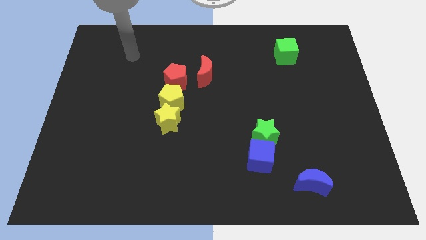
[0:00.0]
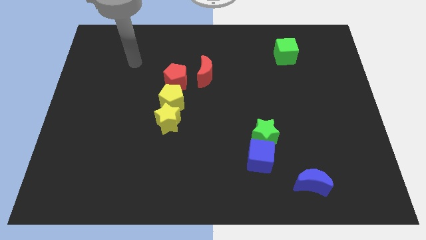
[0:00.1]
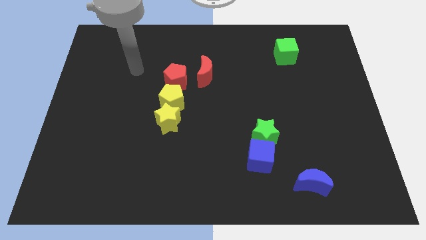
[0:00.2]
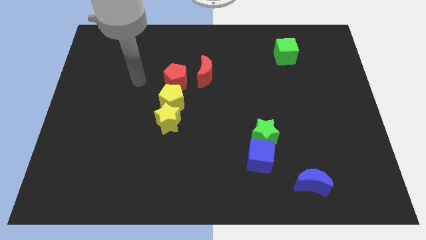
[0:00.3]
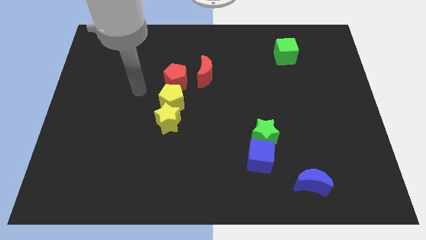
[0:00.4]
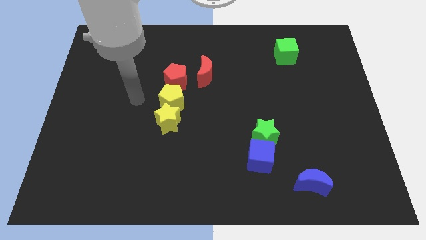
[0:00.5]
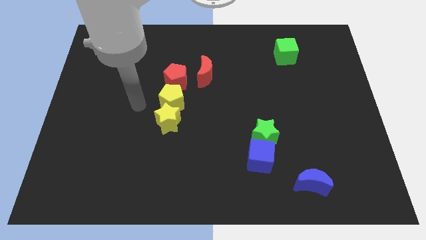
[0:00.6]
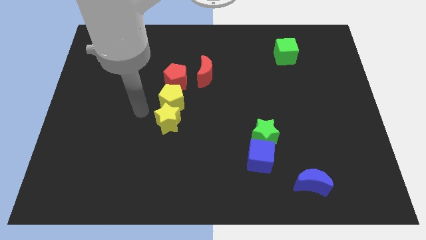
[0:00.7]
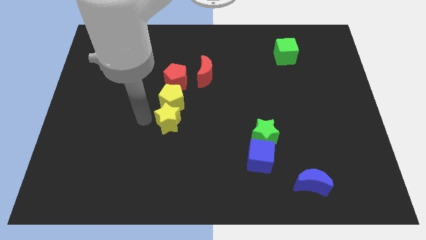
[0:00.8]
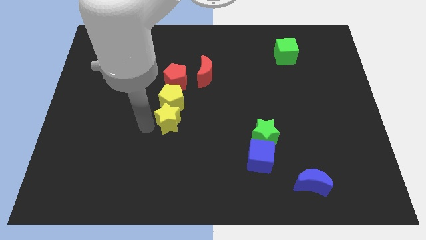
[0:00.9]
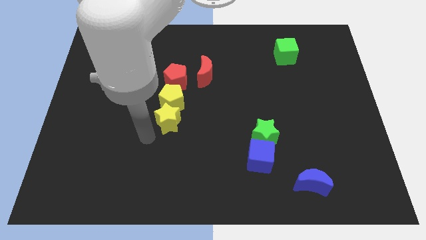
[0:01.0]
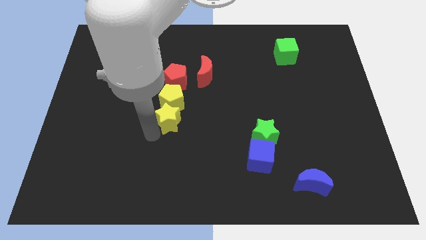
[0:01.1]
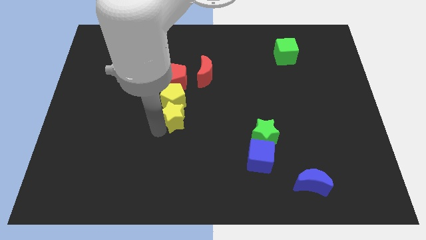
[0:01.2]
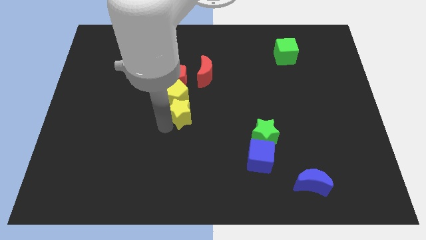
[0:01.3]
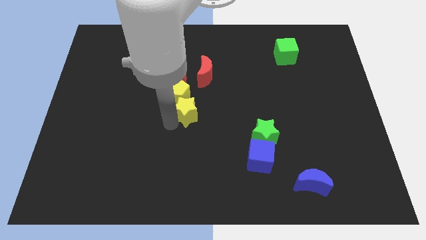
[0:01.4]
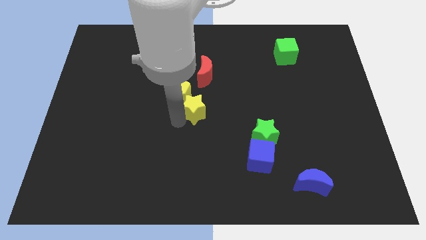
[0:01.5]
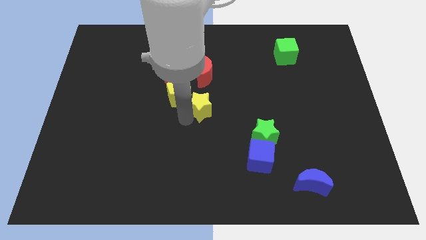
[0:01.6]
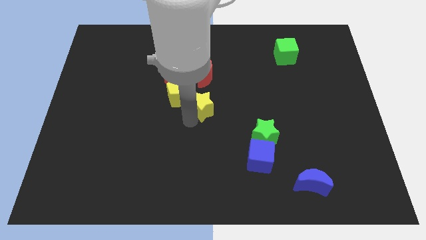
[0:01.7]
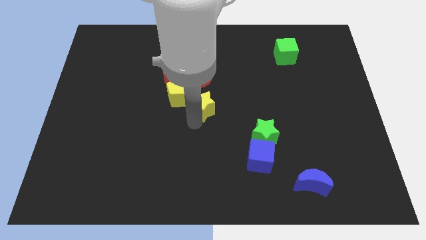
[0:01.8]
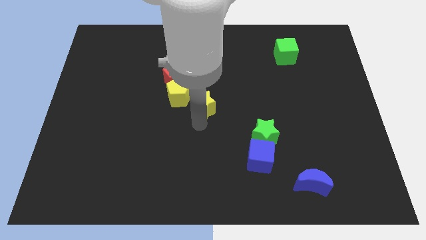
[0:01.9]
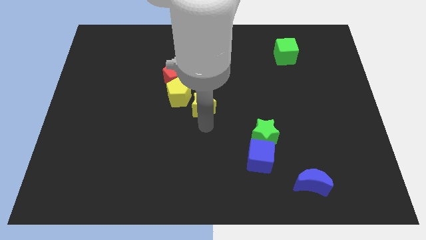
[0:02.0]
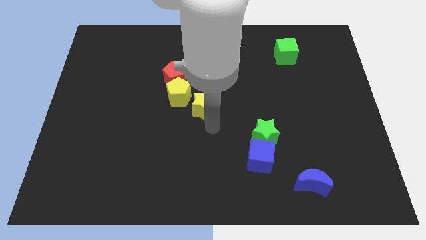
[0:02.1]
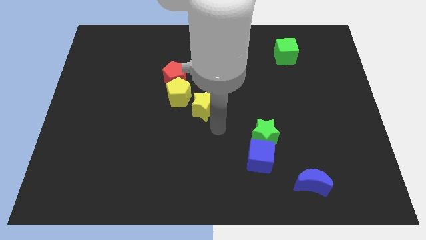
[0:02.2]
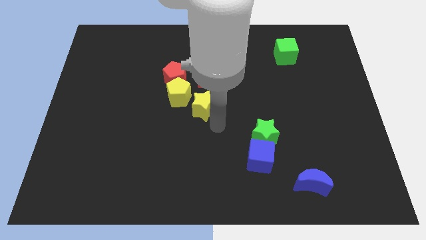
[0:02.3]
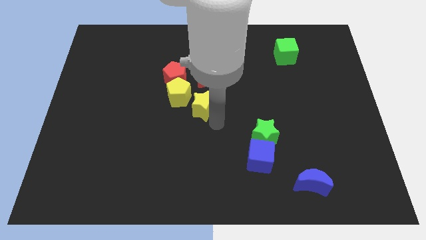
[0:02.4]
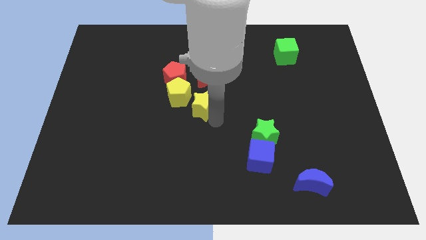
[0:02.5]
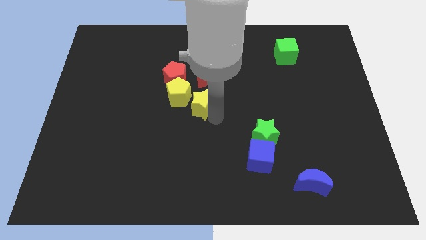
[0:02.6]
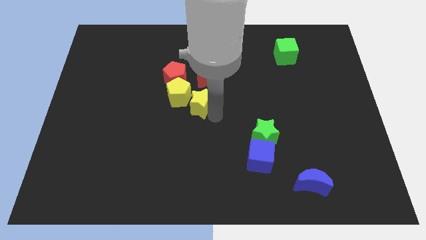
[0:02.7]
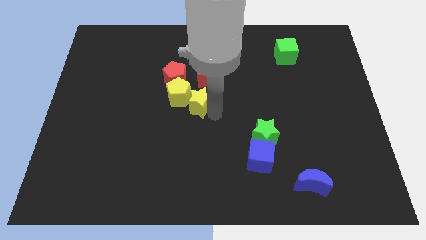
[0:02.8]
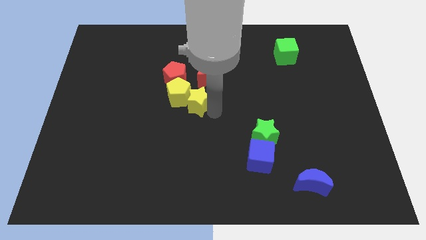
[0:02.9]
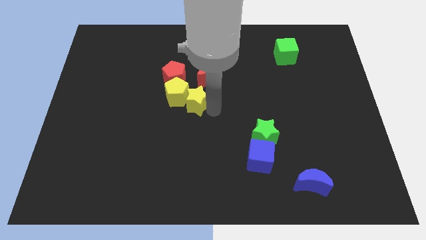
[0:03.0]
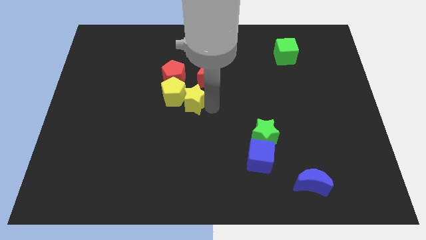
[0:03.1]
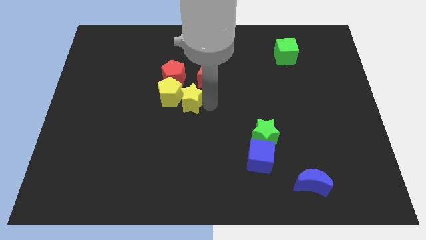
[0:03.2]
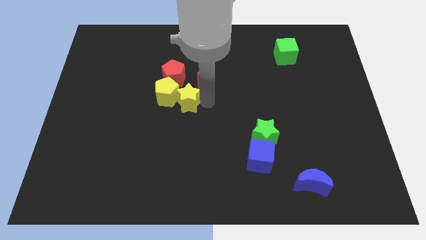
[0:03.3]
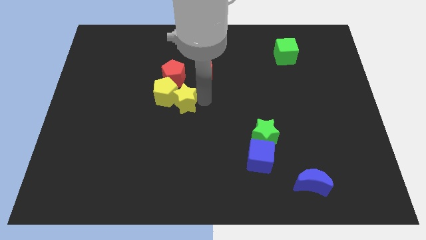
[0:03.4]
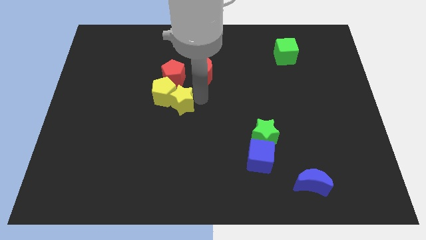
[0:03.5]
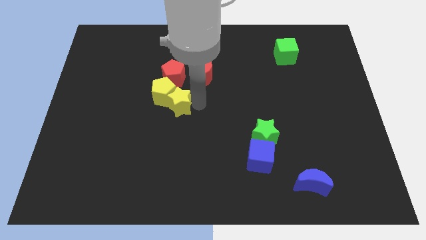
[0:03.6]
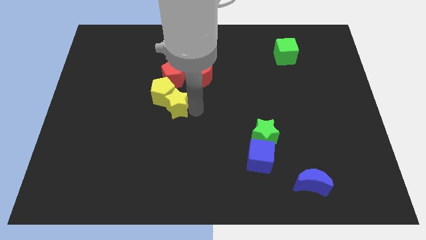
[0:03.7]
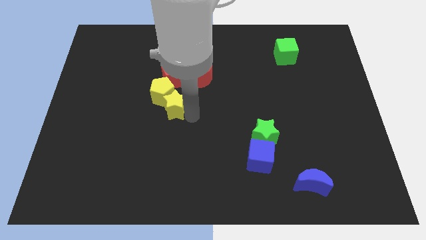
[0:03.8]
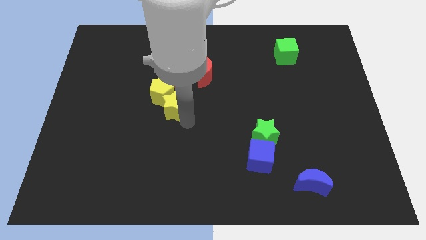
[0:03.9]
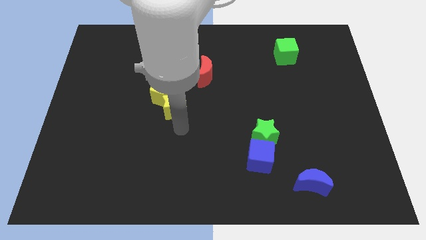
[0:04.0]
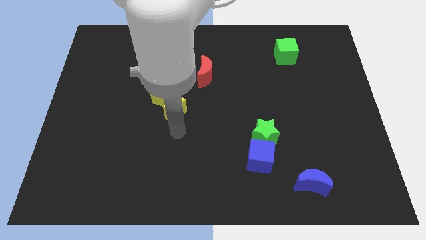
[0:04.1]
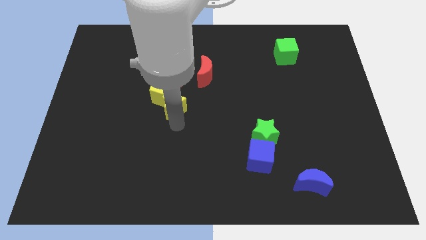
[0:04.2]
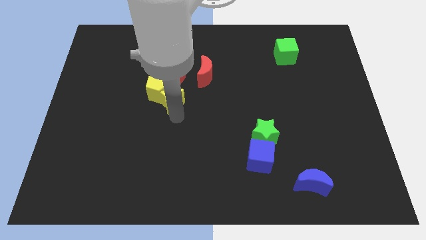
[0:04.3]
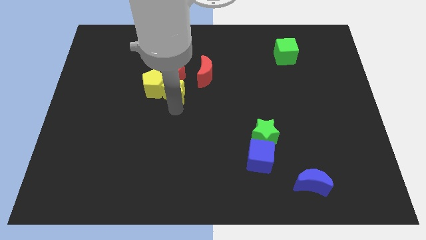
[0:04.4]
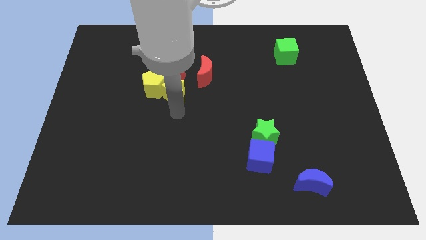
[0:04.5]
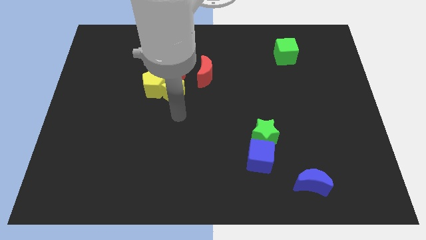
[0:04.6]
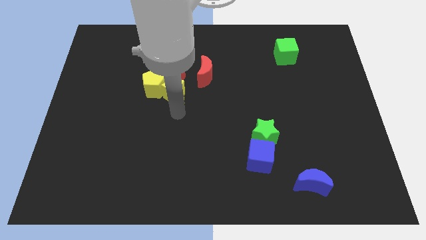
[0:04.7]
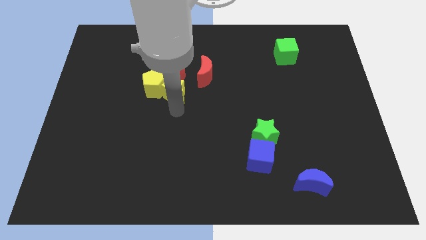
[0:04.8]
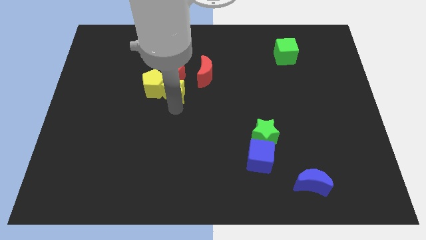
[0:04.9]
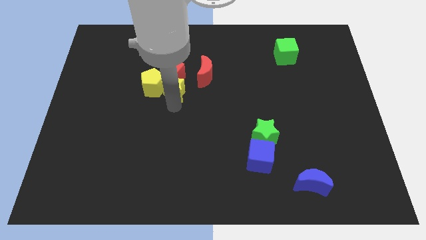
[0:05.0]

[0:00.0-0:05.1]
push the yellow star close to the red pentagon

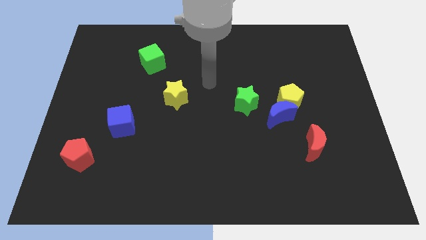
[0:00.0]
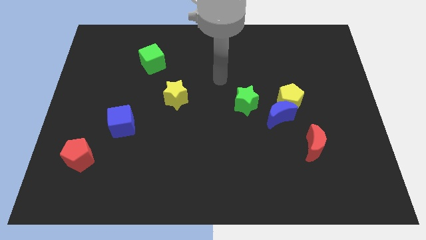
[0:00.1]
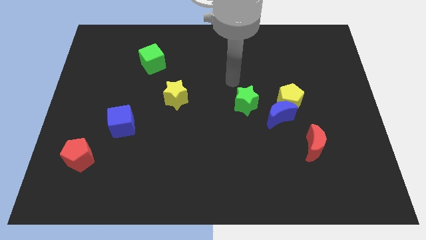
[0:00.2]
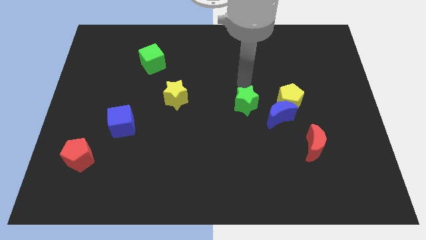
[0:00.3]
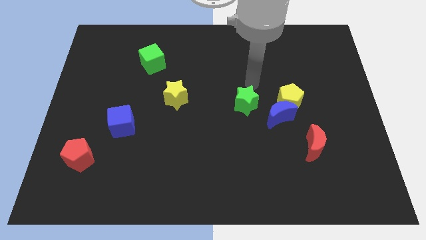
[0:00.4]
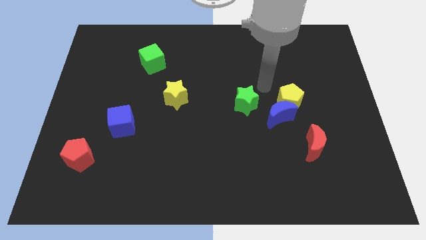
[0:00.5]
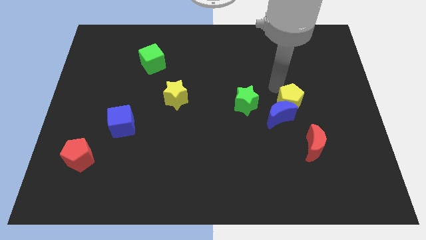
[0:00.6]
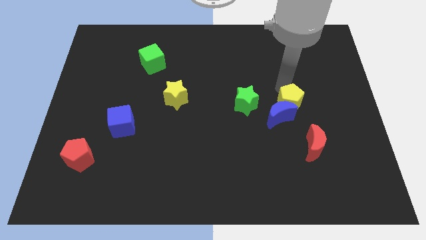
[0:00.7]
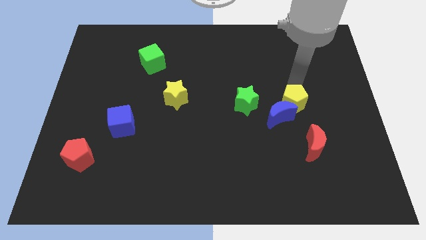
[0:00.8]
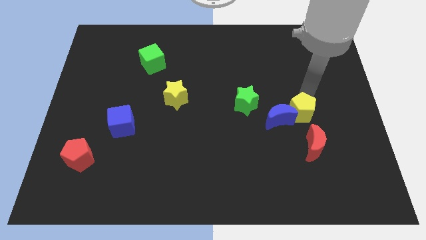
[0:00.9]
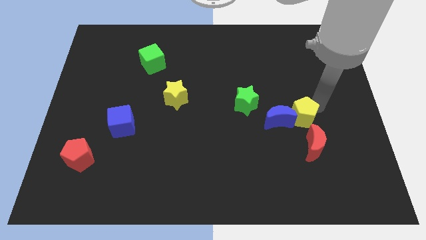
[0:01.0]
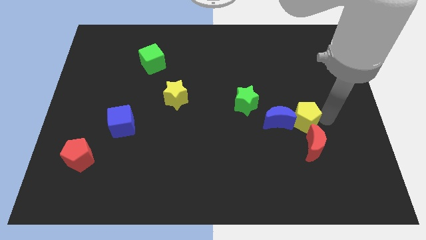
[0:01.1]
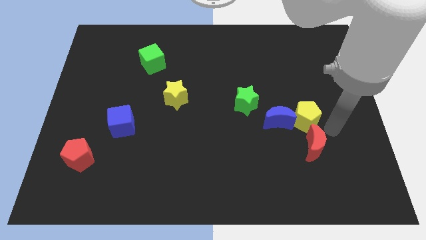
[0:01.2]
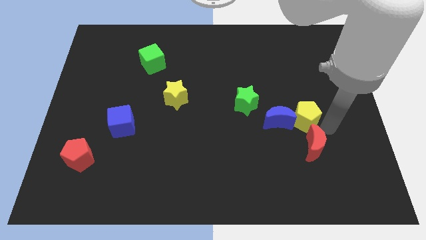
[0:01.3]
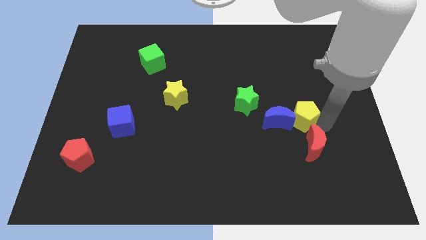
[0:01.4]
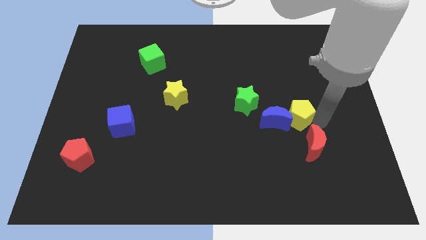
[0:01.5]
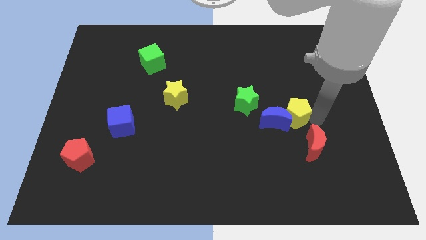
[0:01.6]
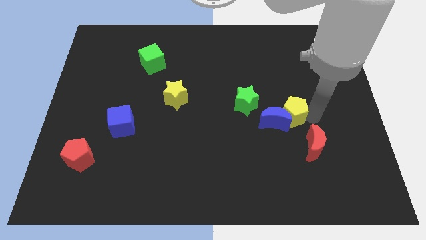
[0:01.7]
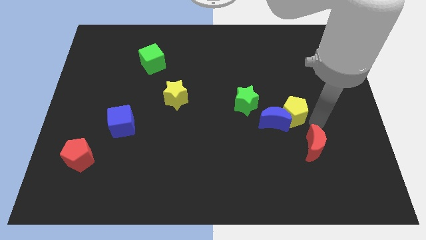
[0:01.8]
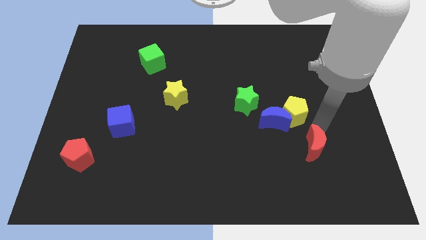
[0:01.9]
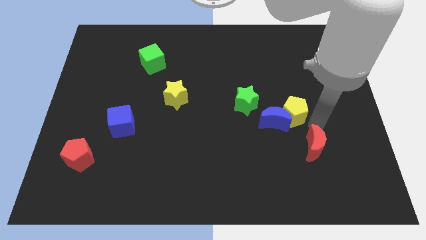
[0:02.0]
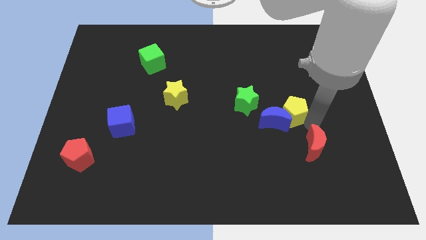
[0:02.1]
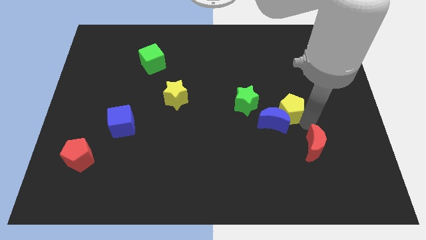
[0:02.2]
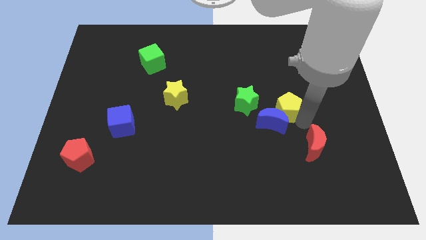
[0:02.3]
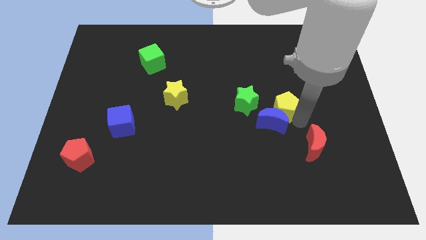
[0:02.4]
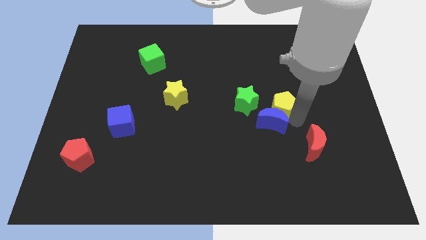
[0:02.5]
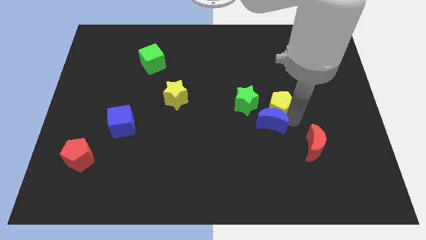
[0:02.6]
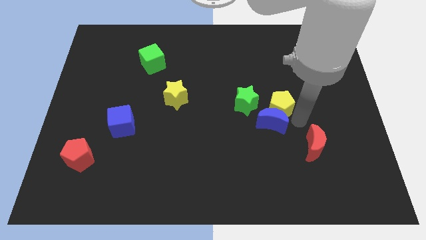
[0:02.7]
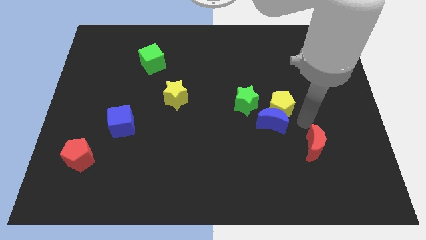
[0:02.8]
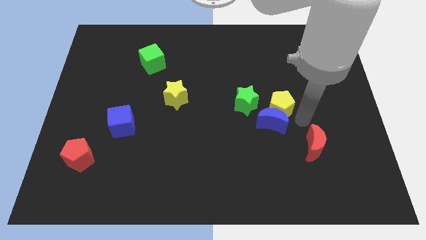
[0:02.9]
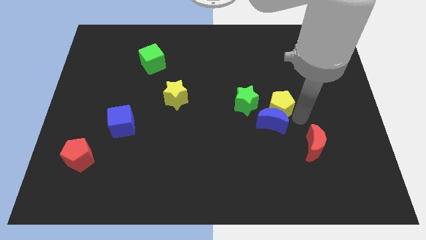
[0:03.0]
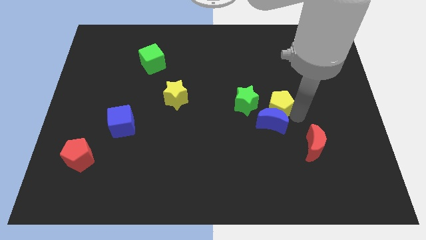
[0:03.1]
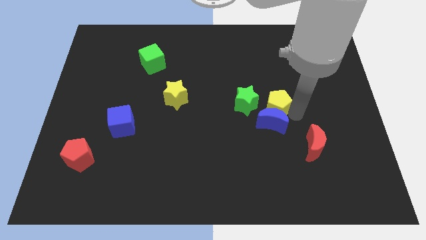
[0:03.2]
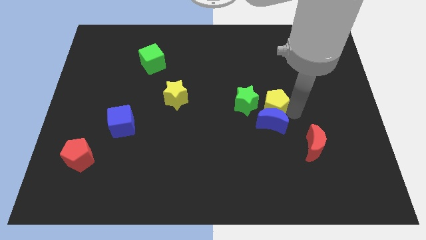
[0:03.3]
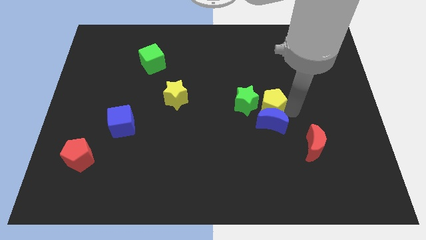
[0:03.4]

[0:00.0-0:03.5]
move the yellow pentagon to the green star
